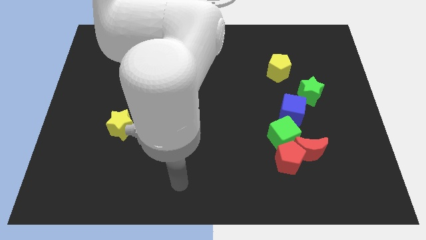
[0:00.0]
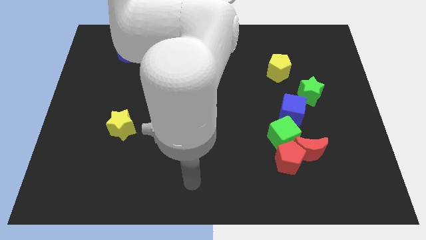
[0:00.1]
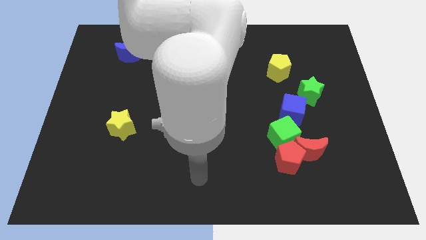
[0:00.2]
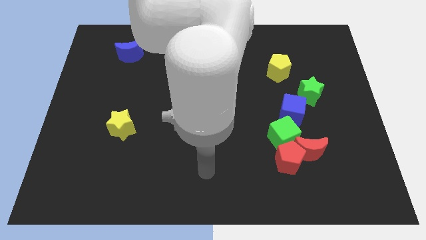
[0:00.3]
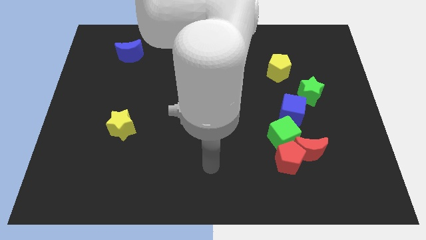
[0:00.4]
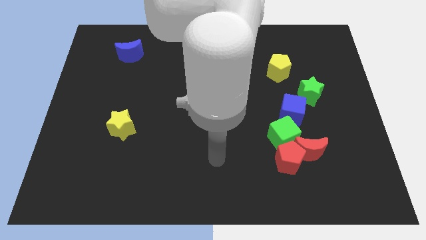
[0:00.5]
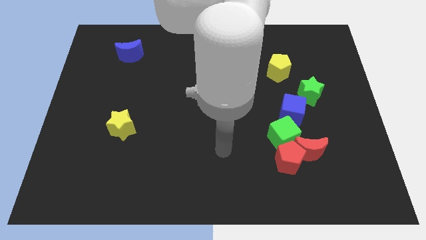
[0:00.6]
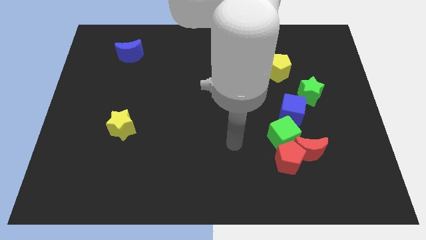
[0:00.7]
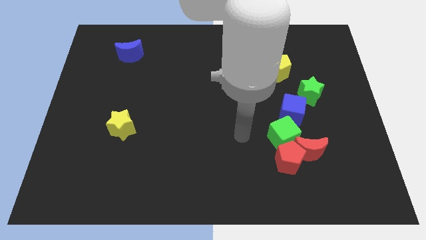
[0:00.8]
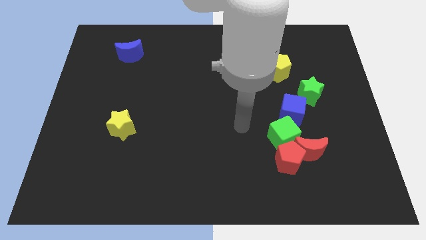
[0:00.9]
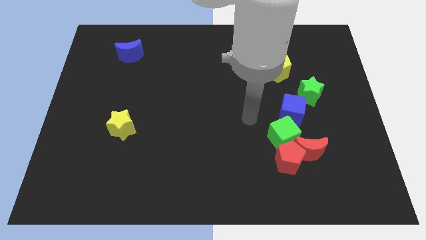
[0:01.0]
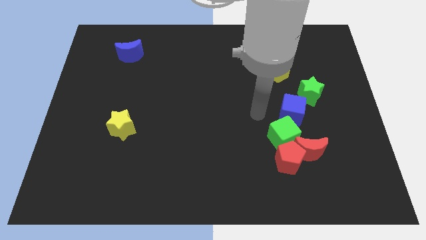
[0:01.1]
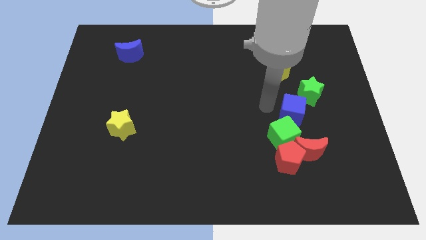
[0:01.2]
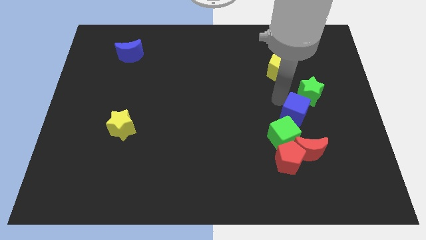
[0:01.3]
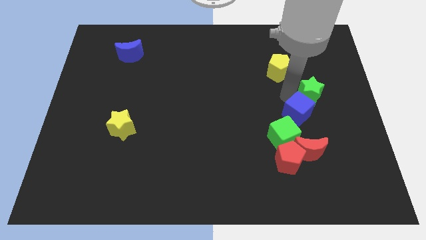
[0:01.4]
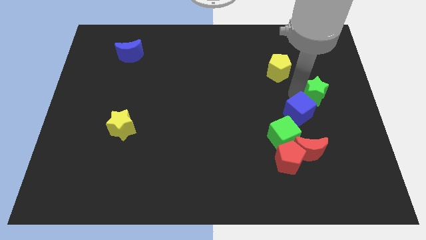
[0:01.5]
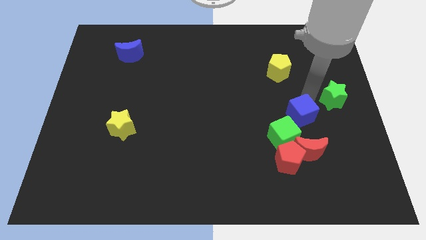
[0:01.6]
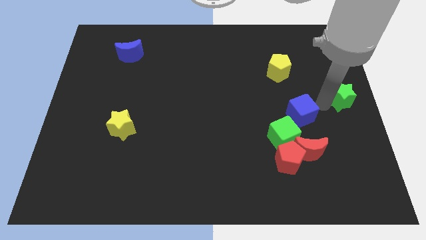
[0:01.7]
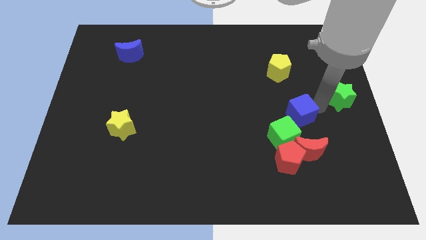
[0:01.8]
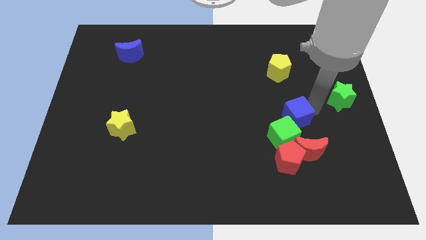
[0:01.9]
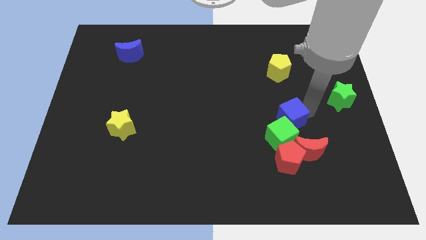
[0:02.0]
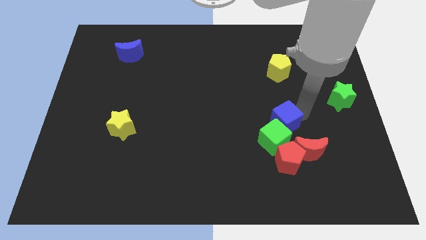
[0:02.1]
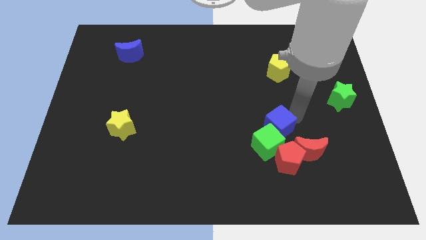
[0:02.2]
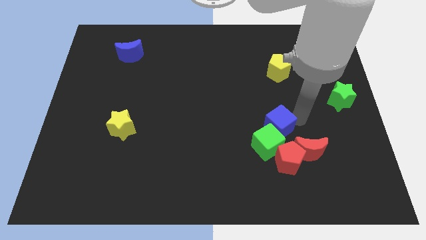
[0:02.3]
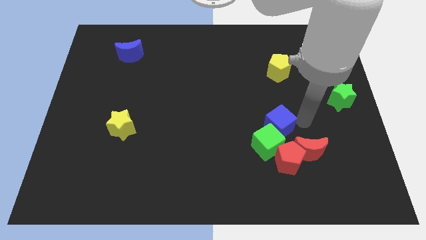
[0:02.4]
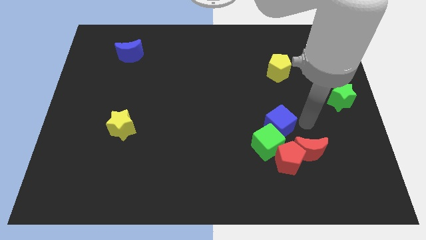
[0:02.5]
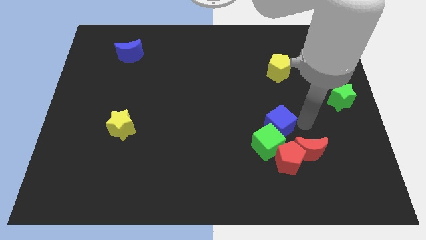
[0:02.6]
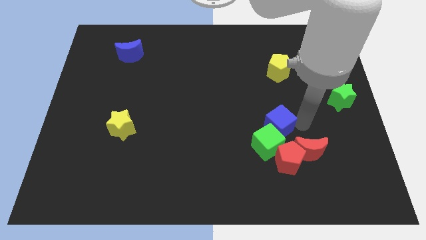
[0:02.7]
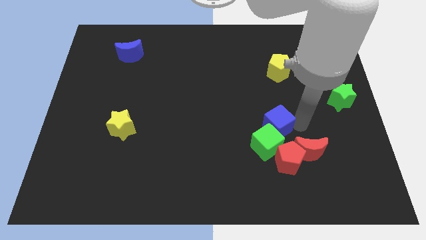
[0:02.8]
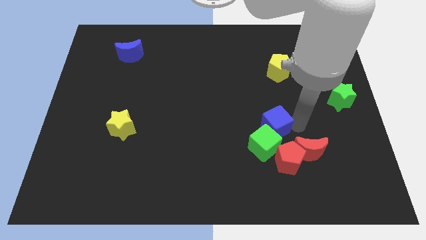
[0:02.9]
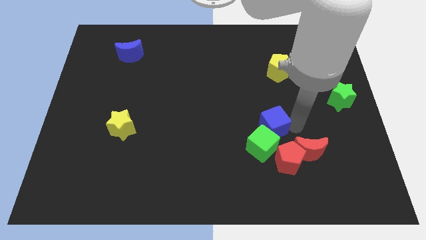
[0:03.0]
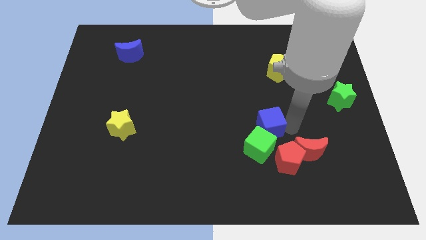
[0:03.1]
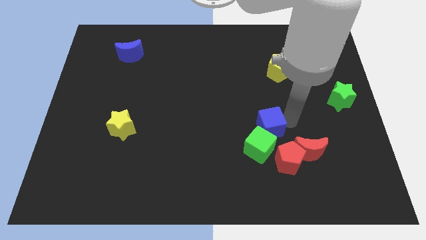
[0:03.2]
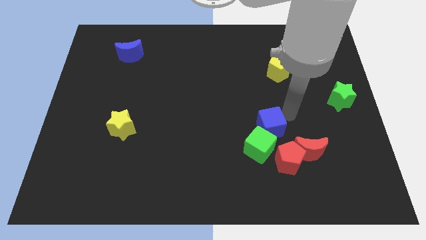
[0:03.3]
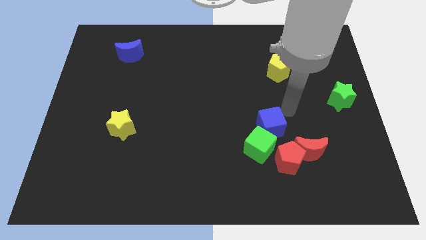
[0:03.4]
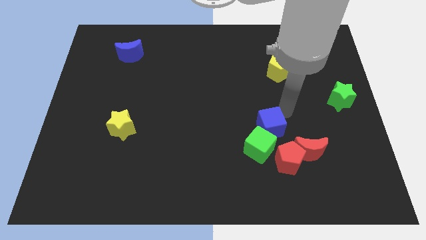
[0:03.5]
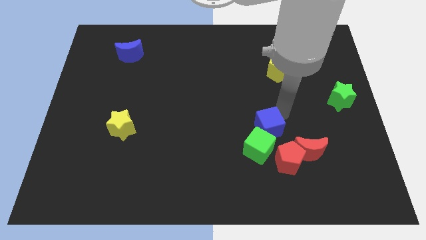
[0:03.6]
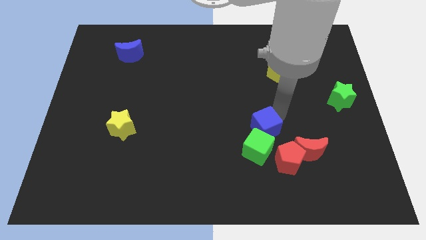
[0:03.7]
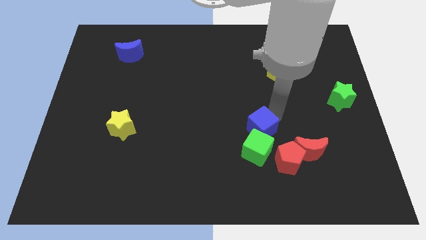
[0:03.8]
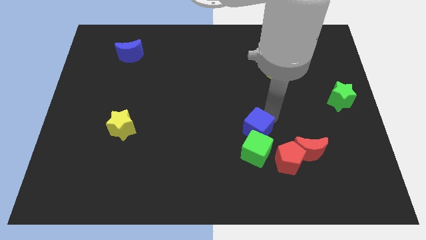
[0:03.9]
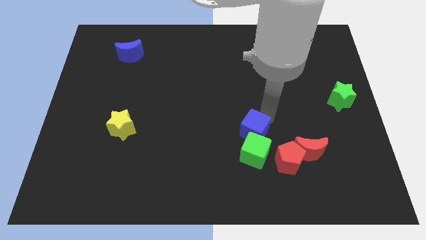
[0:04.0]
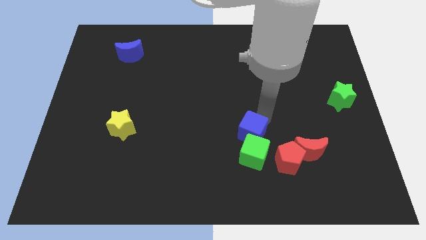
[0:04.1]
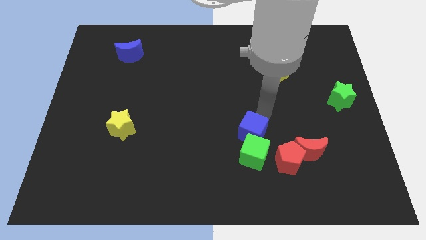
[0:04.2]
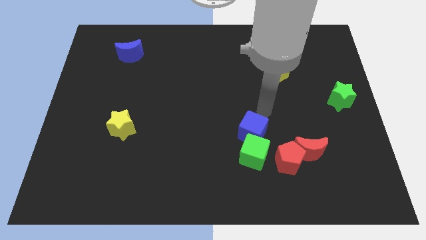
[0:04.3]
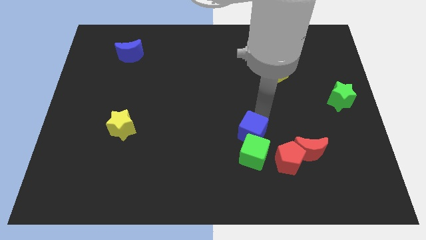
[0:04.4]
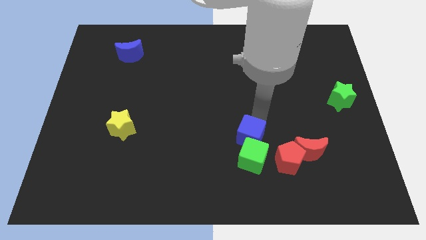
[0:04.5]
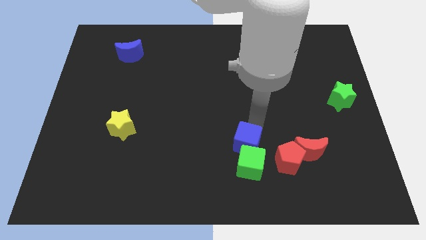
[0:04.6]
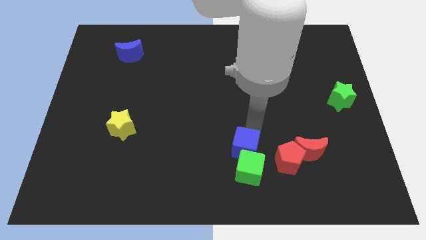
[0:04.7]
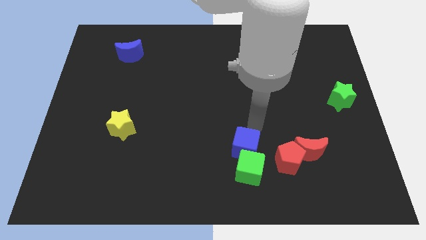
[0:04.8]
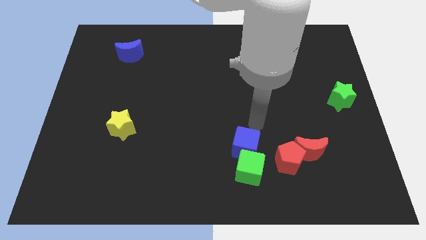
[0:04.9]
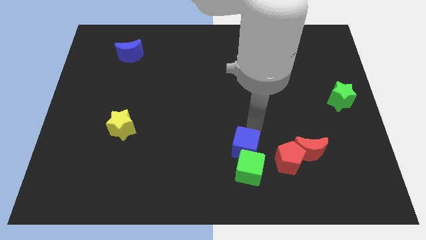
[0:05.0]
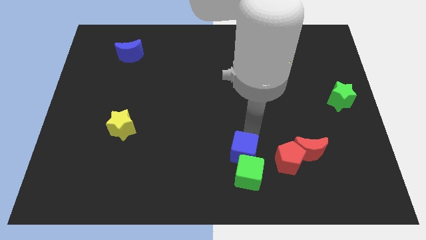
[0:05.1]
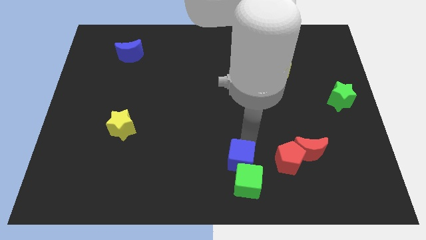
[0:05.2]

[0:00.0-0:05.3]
push the blue cube to the bottom

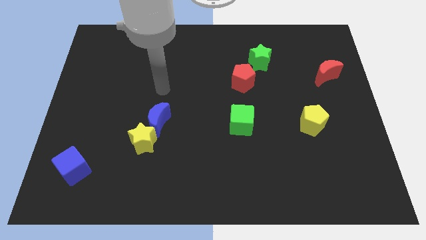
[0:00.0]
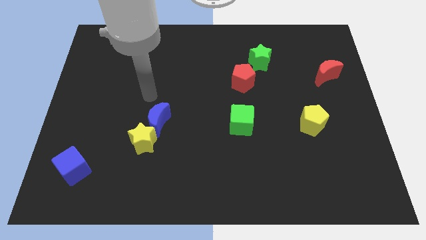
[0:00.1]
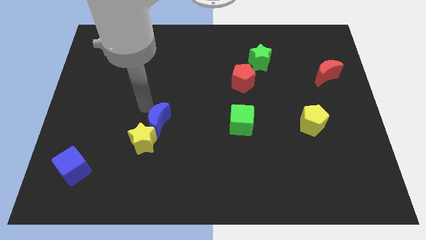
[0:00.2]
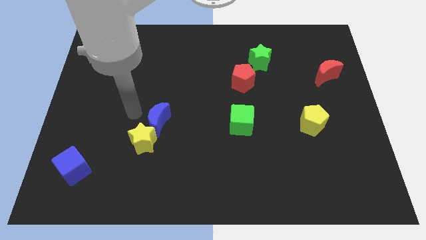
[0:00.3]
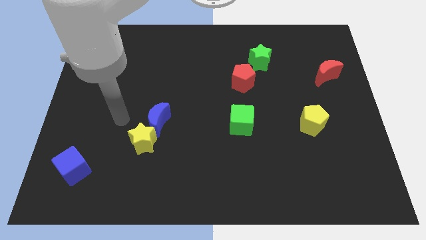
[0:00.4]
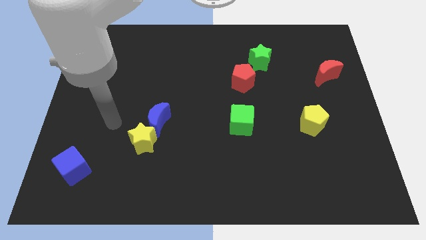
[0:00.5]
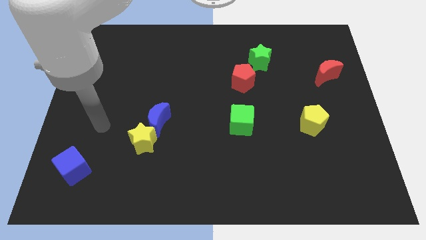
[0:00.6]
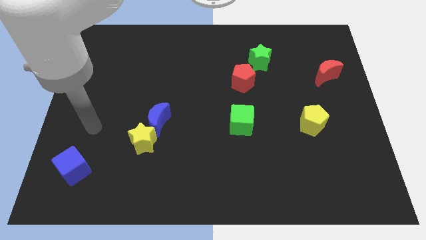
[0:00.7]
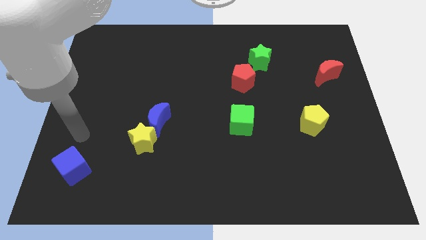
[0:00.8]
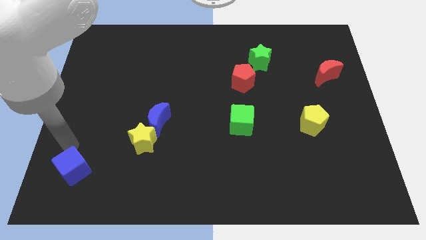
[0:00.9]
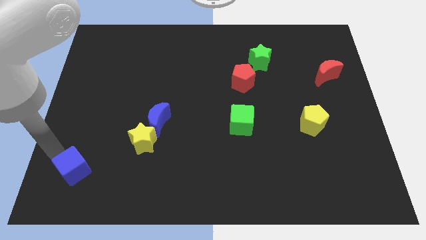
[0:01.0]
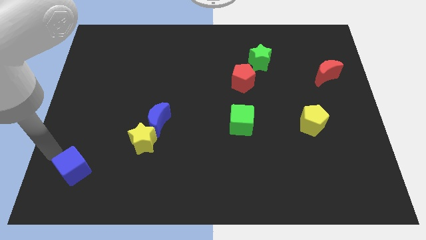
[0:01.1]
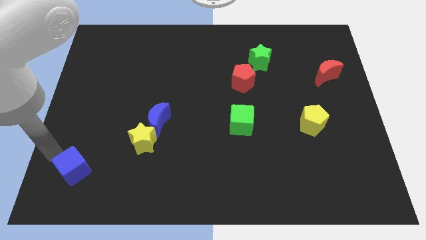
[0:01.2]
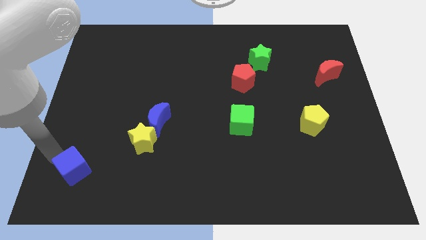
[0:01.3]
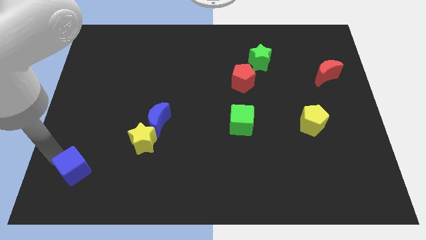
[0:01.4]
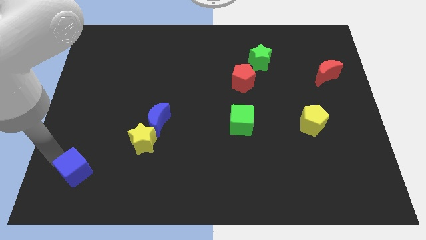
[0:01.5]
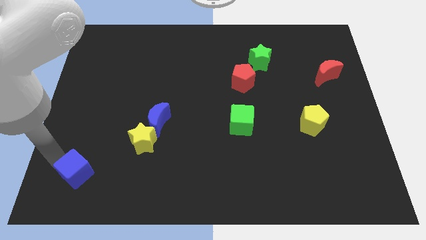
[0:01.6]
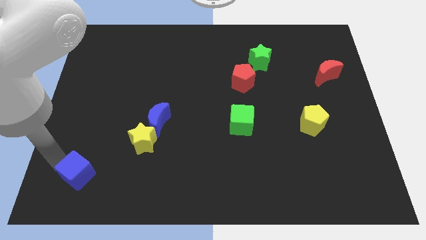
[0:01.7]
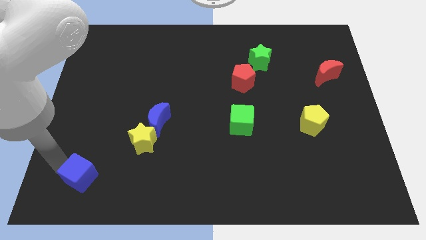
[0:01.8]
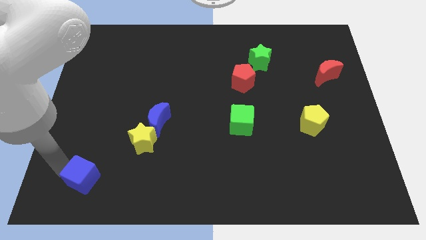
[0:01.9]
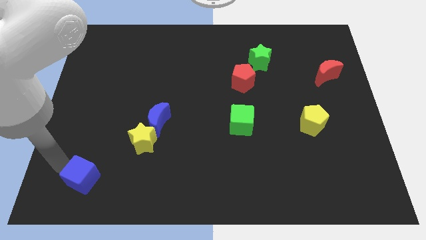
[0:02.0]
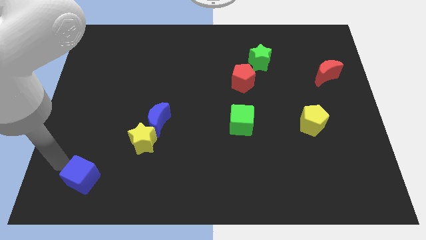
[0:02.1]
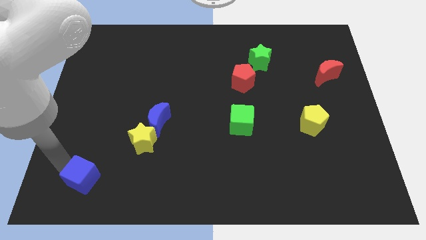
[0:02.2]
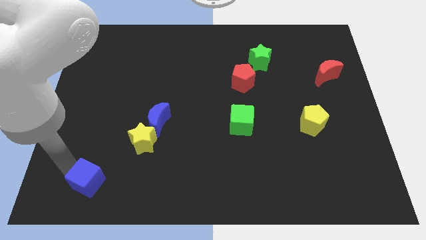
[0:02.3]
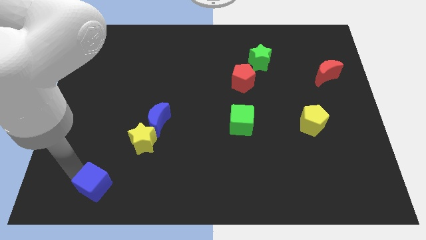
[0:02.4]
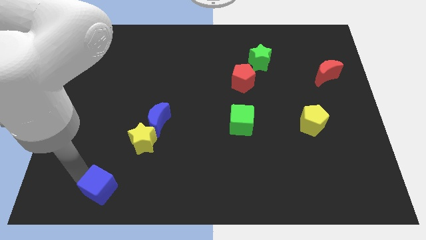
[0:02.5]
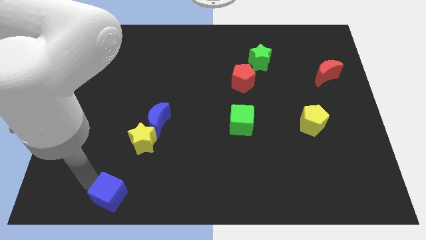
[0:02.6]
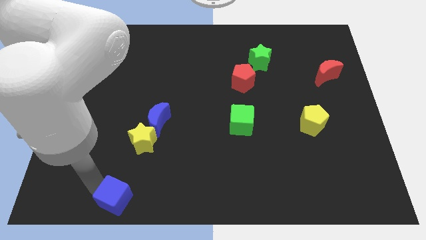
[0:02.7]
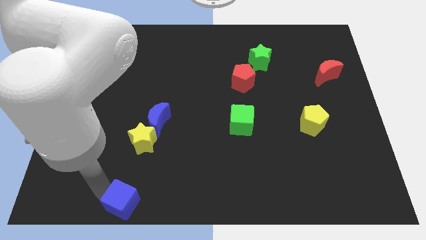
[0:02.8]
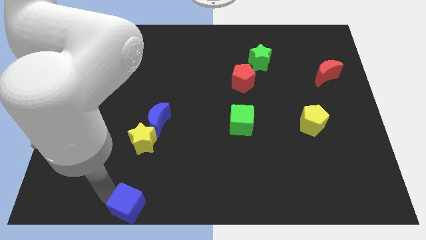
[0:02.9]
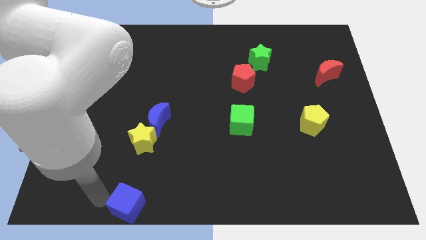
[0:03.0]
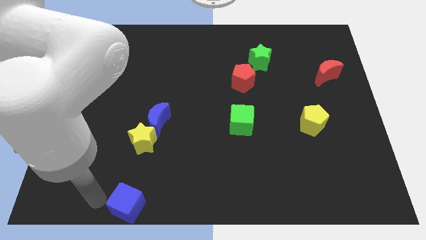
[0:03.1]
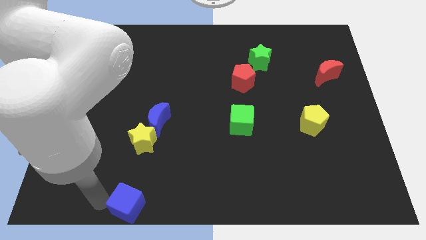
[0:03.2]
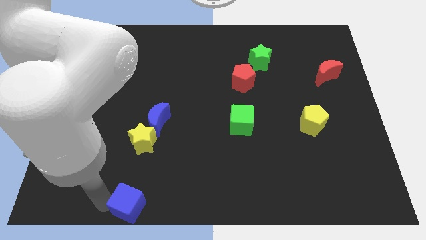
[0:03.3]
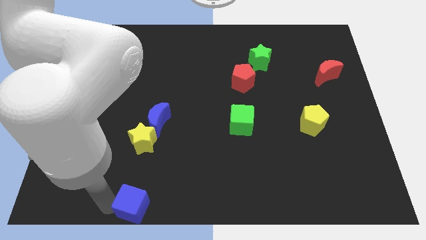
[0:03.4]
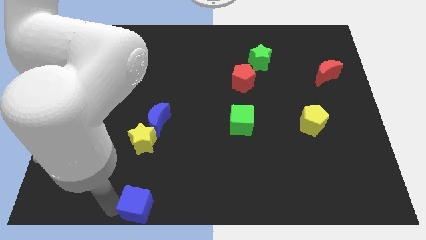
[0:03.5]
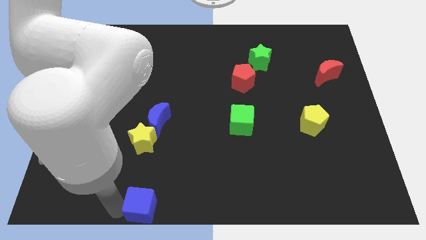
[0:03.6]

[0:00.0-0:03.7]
push the blue cube to the bottom side
